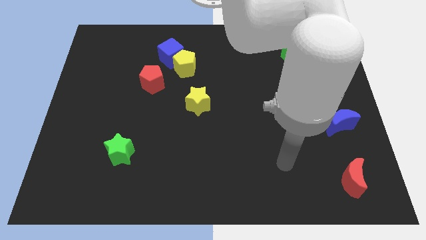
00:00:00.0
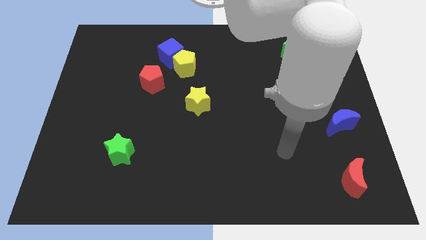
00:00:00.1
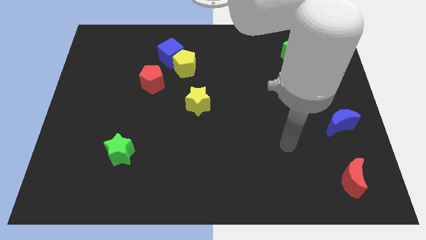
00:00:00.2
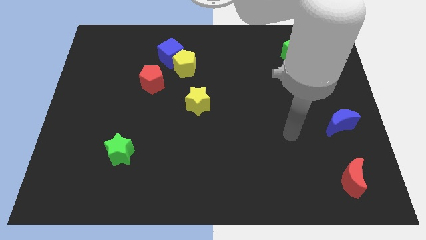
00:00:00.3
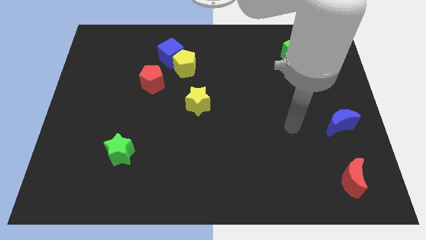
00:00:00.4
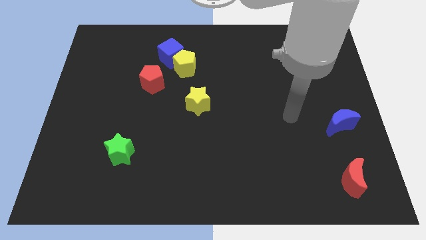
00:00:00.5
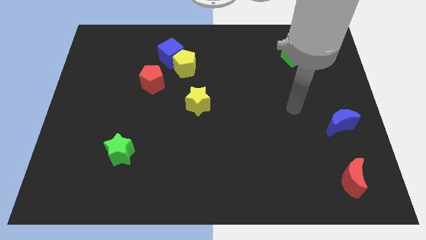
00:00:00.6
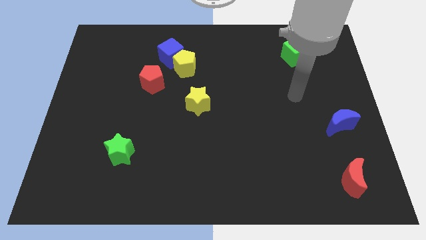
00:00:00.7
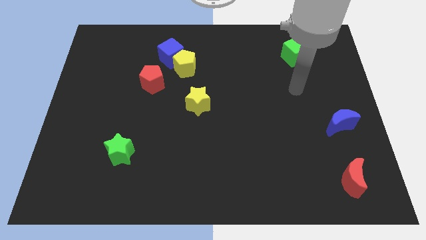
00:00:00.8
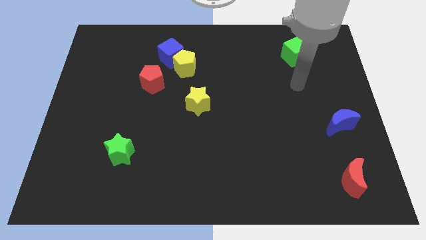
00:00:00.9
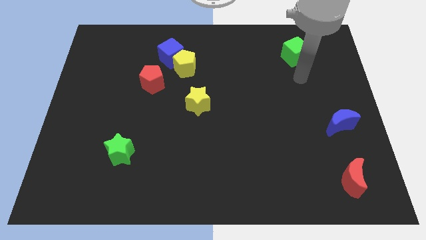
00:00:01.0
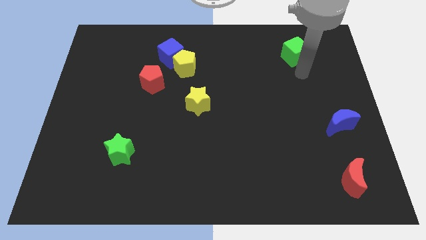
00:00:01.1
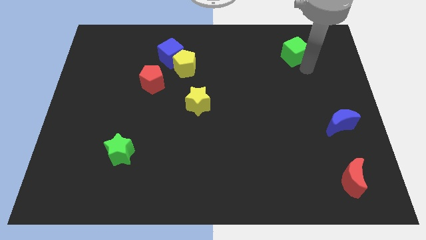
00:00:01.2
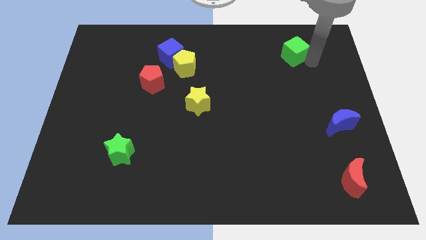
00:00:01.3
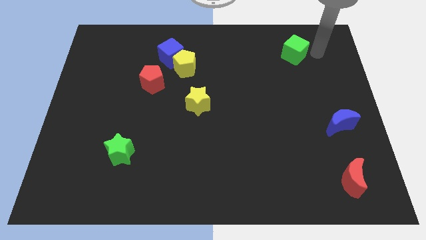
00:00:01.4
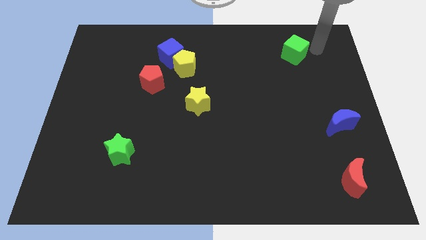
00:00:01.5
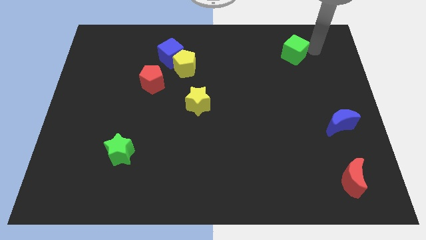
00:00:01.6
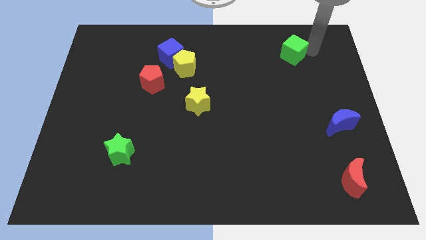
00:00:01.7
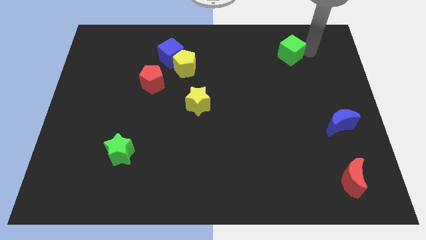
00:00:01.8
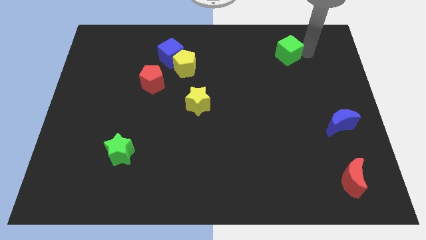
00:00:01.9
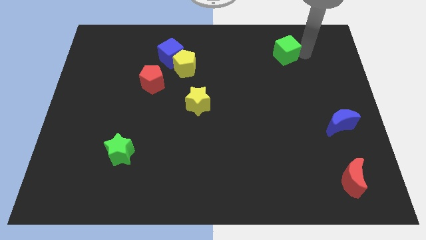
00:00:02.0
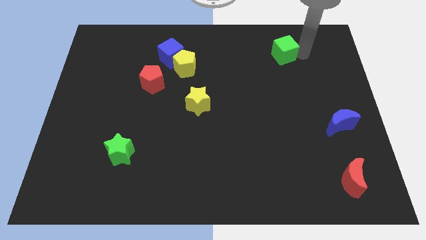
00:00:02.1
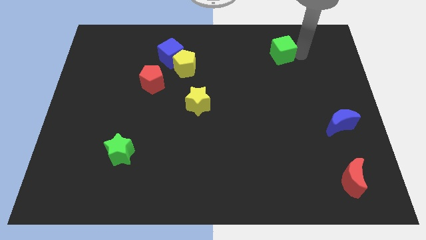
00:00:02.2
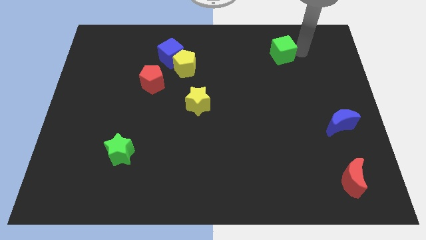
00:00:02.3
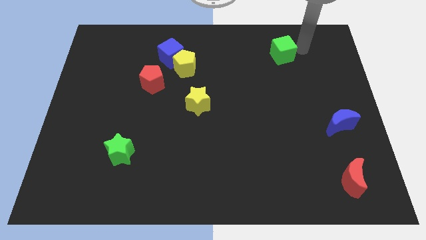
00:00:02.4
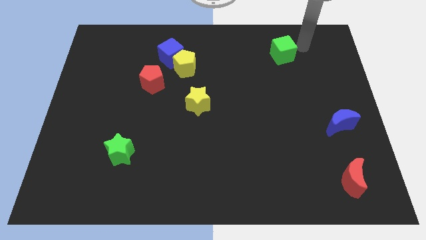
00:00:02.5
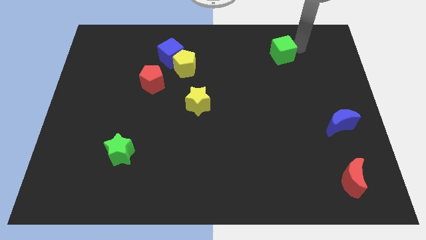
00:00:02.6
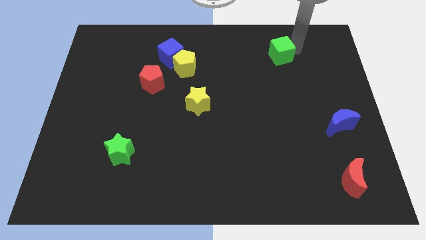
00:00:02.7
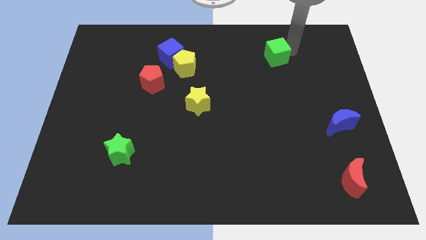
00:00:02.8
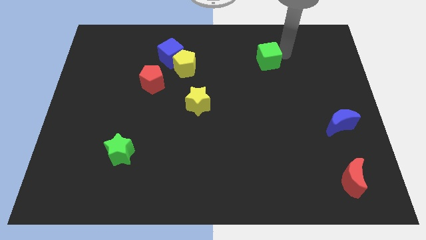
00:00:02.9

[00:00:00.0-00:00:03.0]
push the green cube to the left a bit

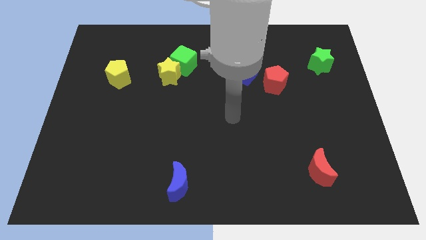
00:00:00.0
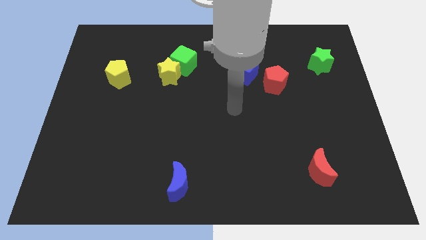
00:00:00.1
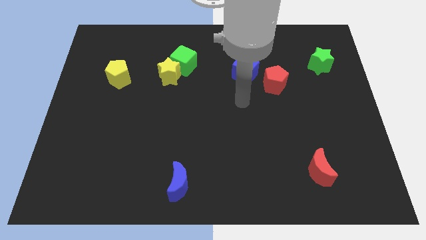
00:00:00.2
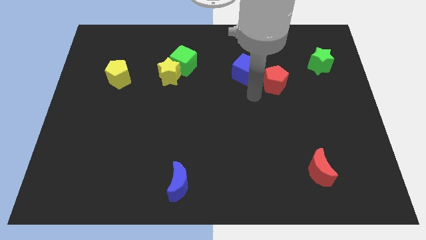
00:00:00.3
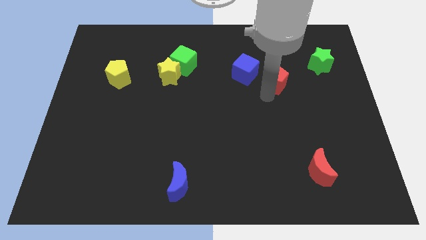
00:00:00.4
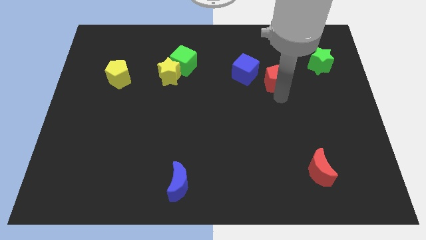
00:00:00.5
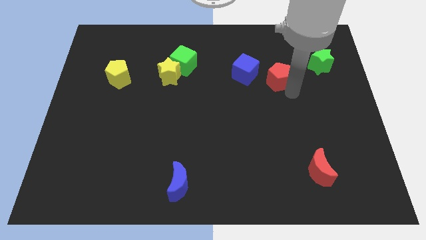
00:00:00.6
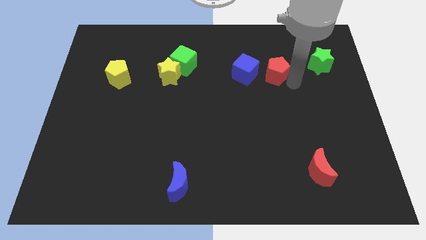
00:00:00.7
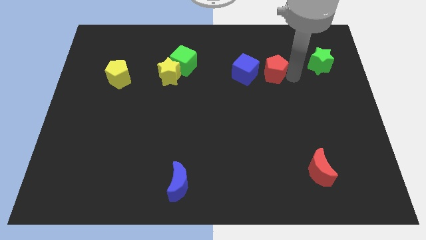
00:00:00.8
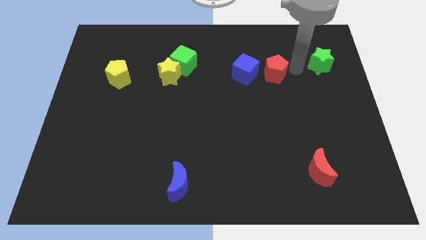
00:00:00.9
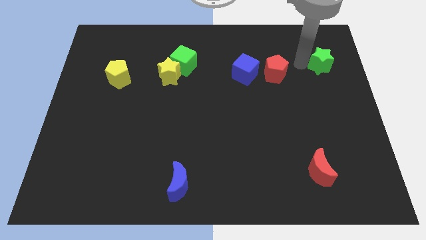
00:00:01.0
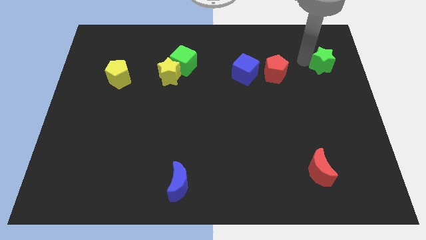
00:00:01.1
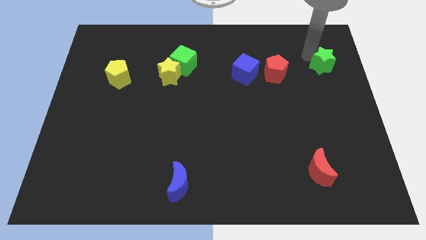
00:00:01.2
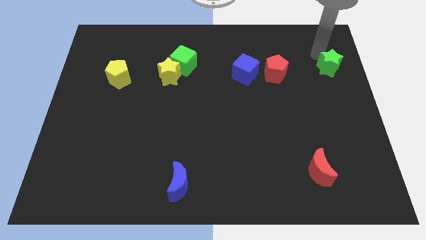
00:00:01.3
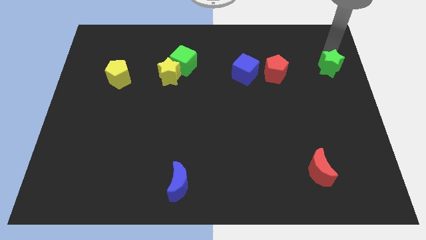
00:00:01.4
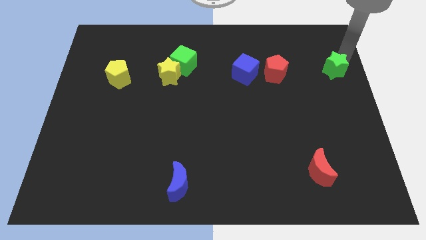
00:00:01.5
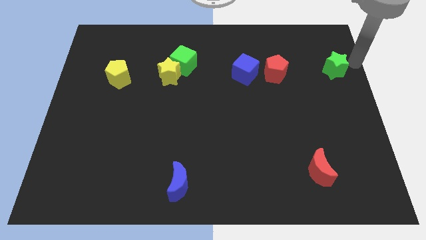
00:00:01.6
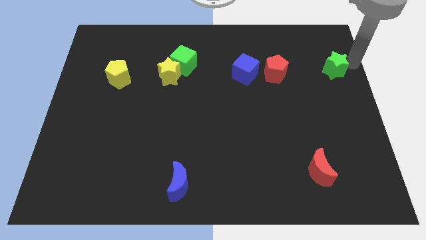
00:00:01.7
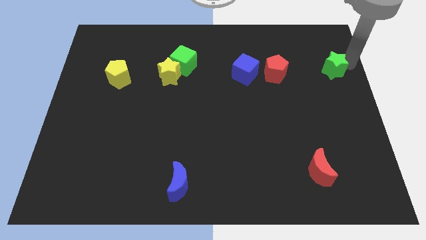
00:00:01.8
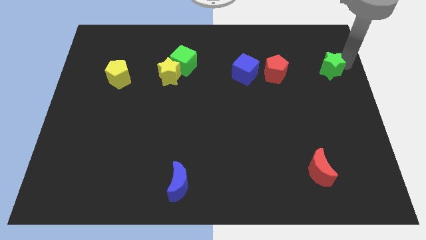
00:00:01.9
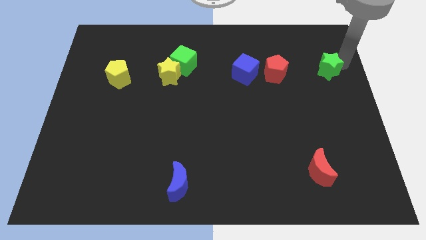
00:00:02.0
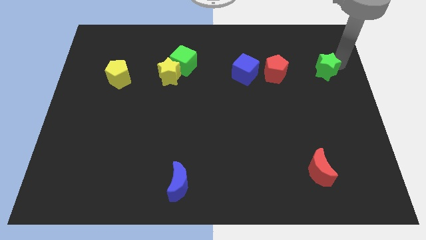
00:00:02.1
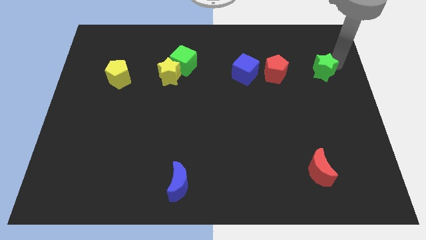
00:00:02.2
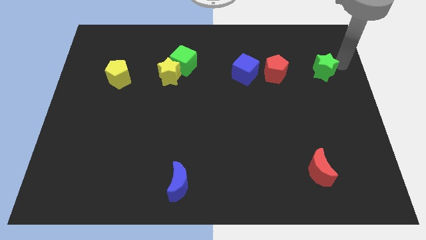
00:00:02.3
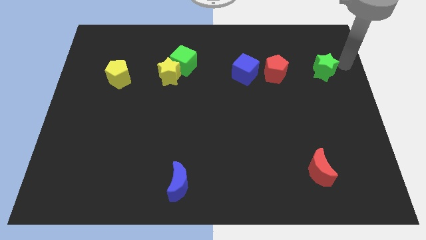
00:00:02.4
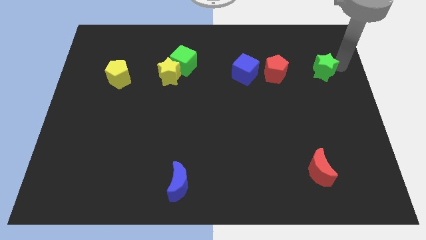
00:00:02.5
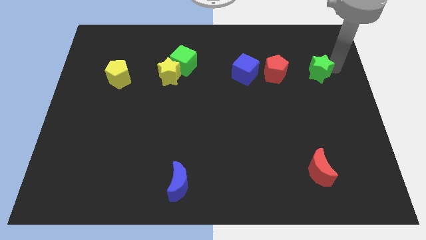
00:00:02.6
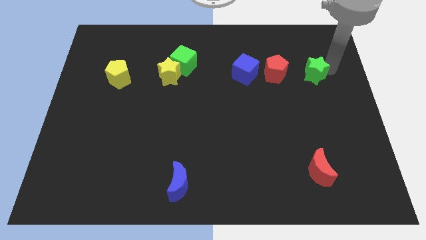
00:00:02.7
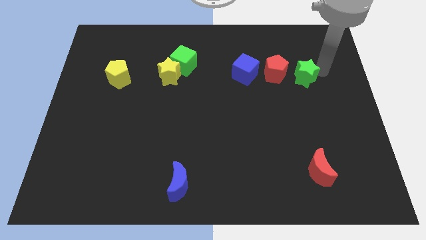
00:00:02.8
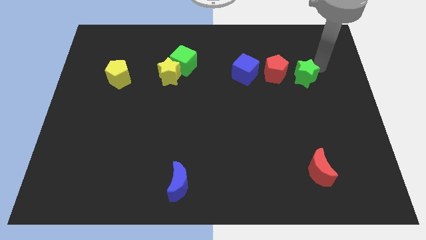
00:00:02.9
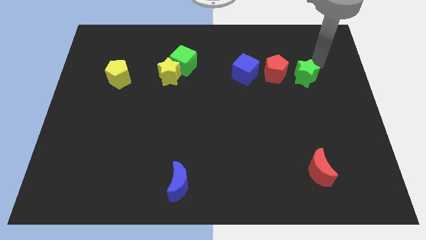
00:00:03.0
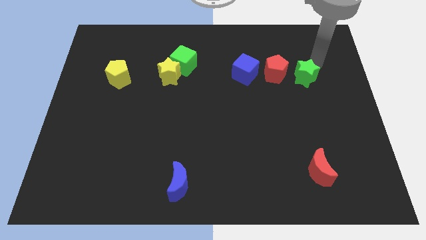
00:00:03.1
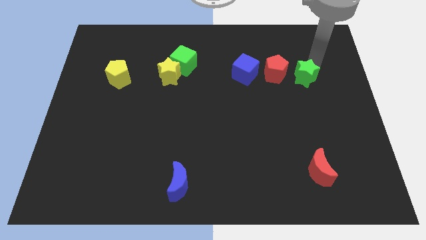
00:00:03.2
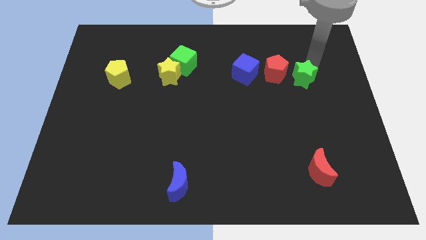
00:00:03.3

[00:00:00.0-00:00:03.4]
slightly slide the green star diagonally down and left

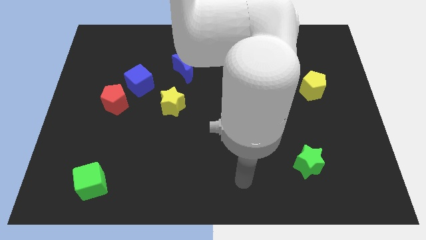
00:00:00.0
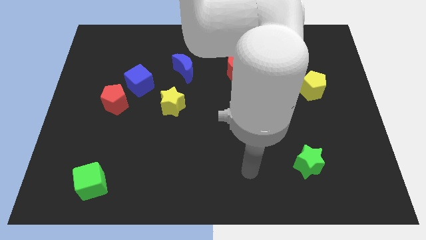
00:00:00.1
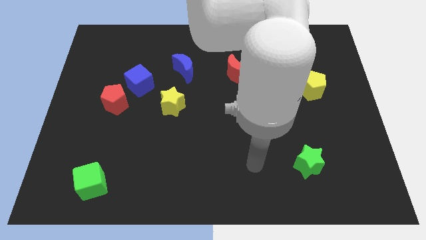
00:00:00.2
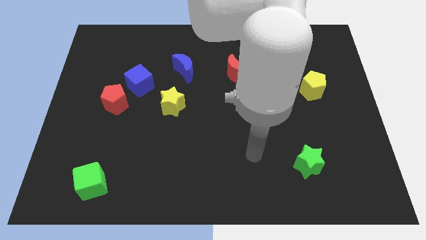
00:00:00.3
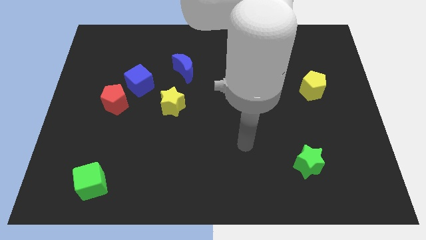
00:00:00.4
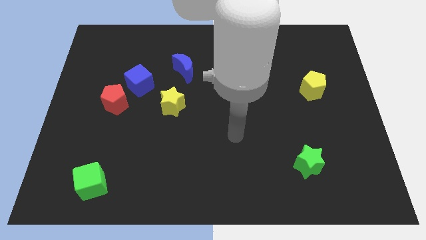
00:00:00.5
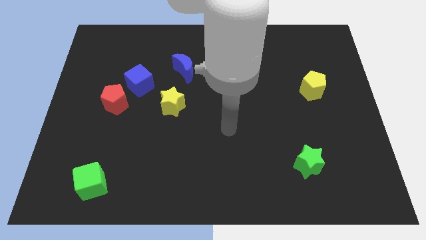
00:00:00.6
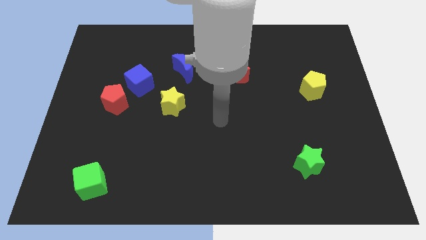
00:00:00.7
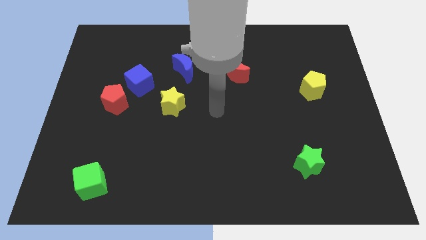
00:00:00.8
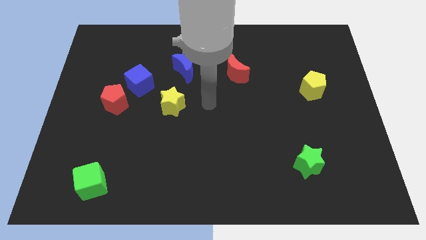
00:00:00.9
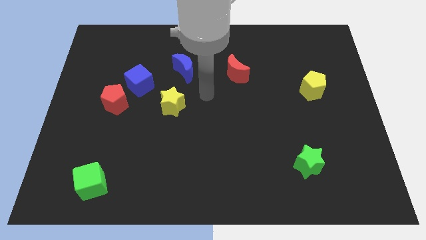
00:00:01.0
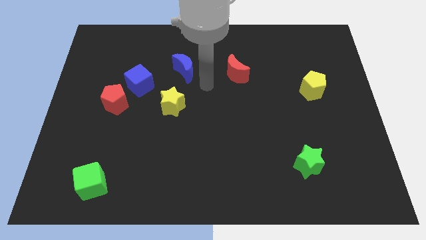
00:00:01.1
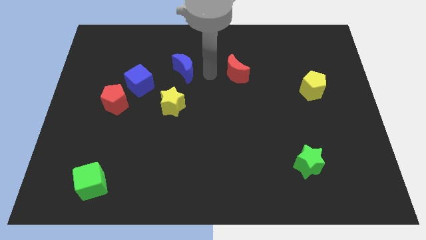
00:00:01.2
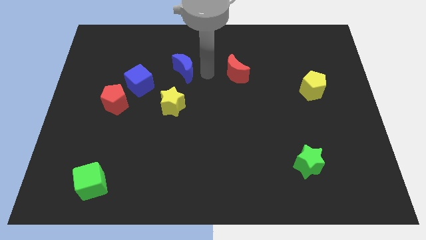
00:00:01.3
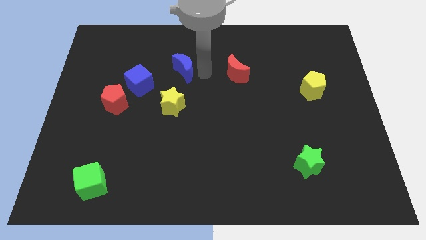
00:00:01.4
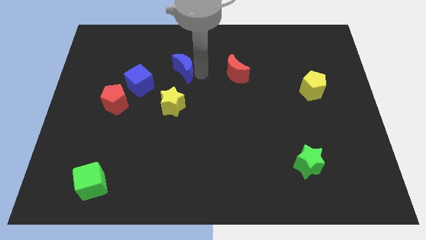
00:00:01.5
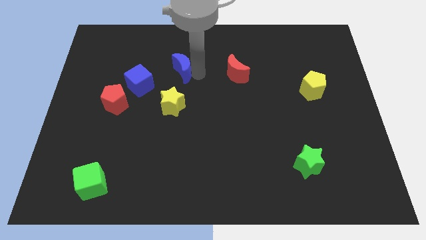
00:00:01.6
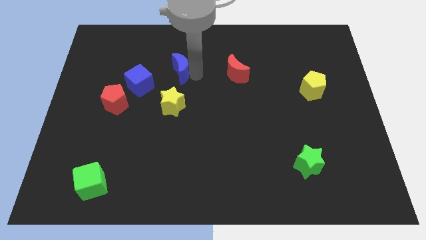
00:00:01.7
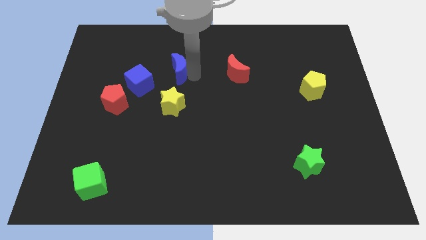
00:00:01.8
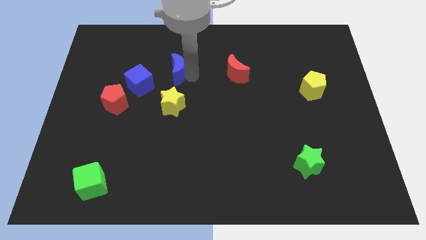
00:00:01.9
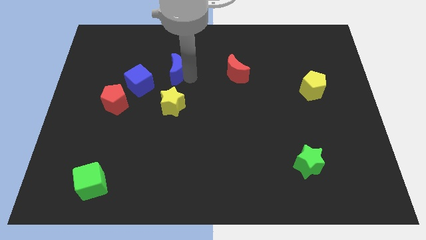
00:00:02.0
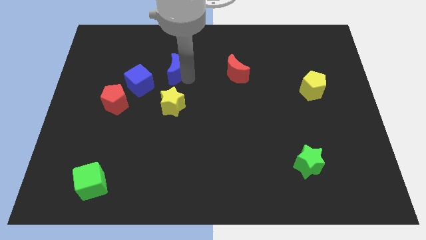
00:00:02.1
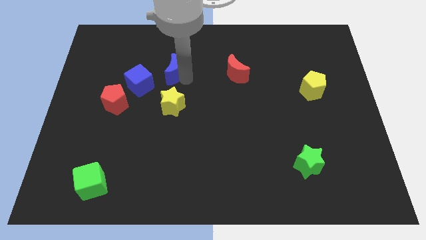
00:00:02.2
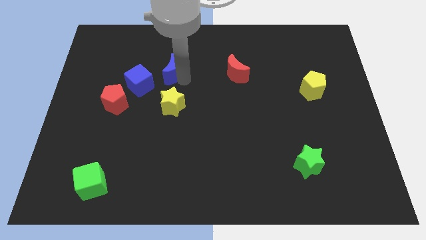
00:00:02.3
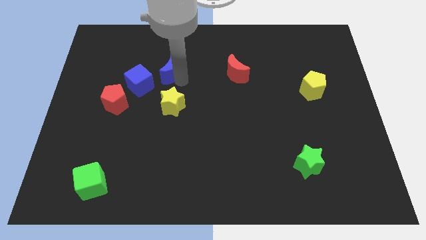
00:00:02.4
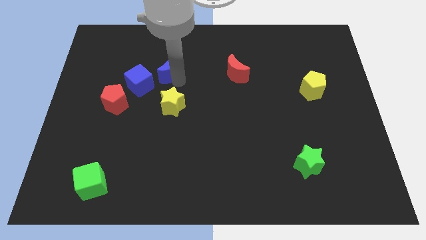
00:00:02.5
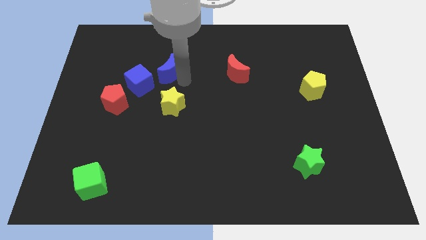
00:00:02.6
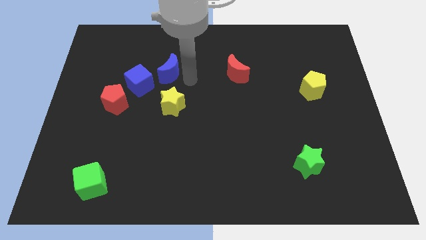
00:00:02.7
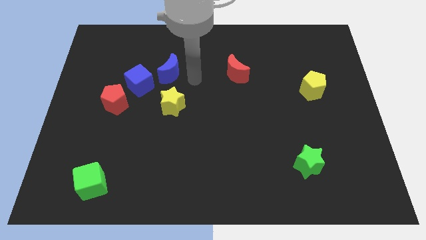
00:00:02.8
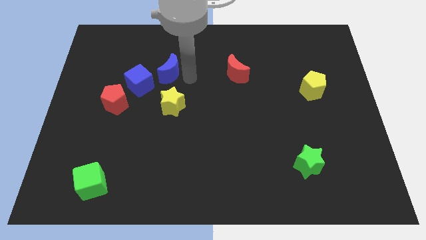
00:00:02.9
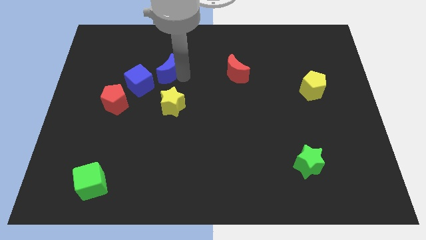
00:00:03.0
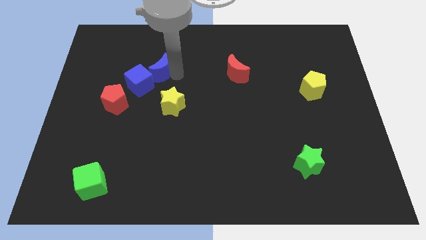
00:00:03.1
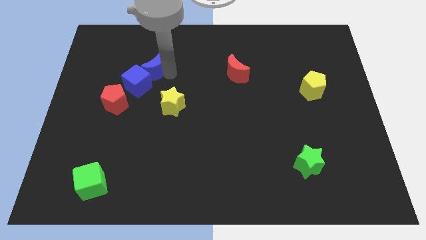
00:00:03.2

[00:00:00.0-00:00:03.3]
slightly push the blue moon left
